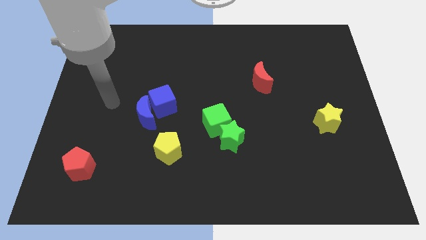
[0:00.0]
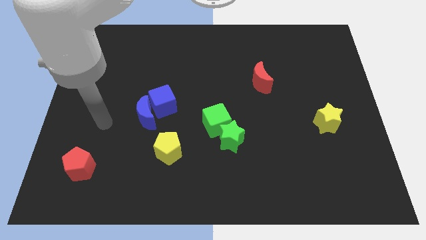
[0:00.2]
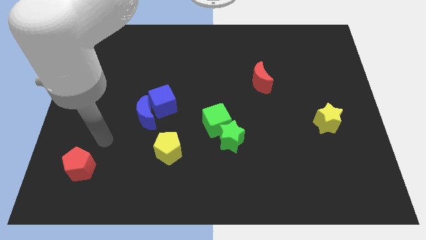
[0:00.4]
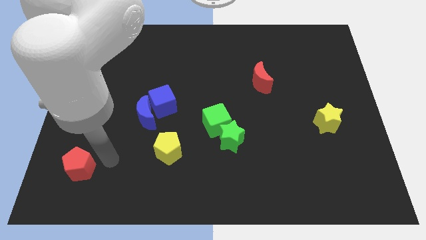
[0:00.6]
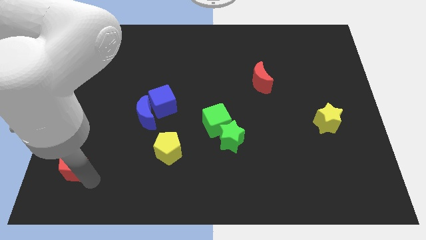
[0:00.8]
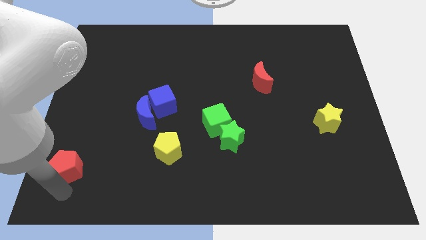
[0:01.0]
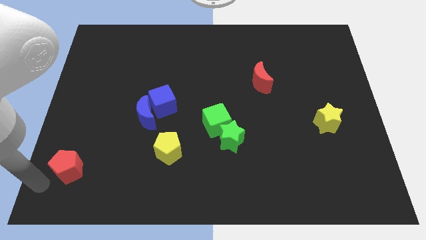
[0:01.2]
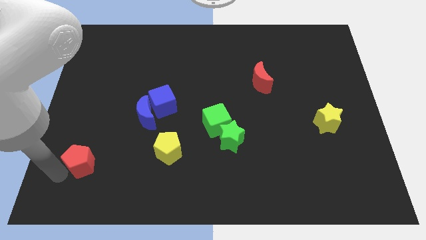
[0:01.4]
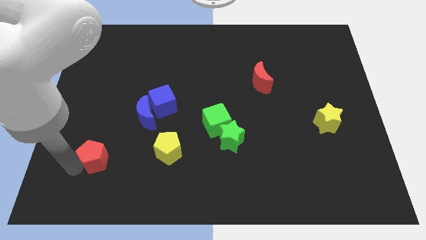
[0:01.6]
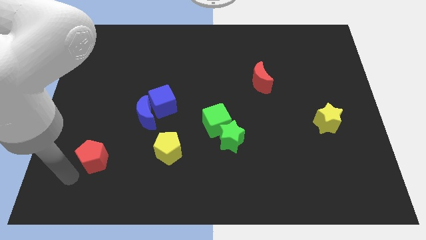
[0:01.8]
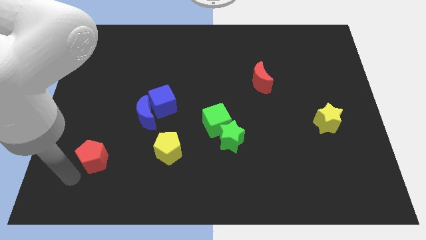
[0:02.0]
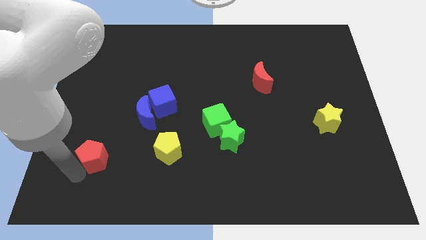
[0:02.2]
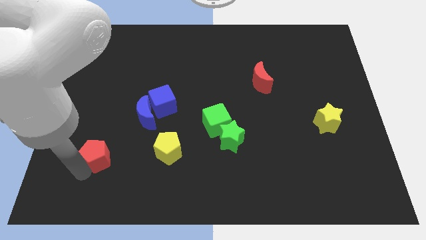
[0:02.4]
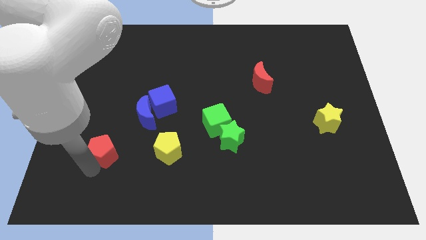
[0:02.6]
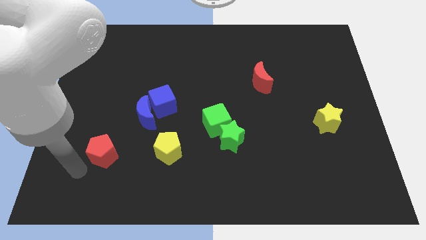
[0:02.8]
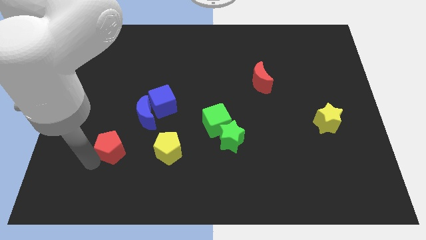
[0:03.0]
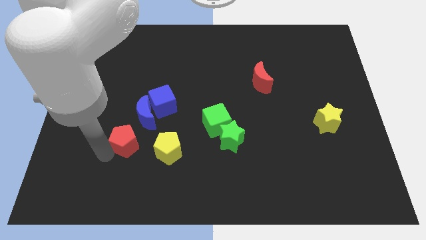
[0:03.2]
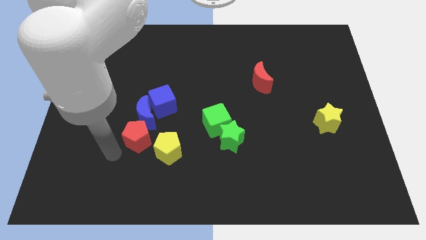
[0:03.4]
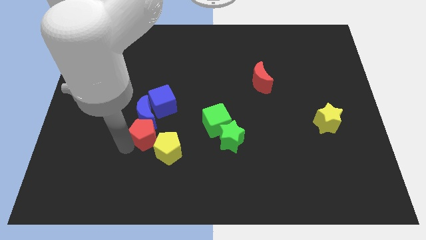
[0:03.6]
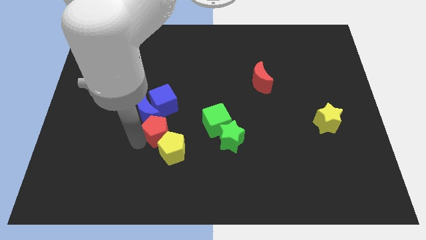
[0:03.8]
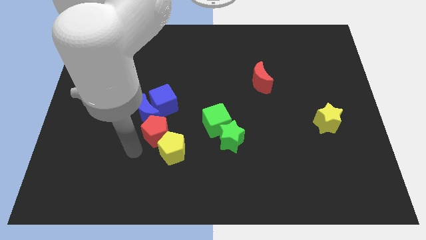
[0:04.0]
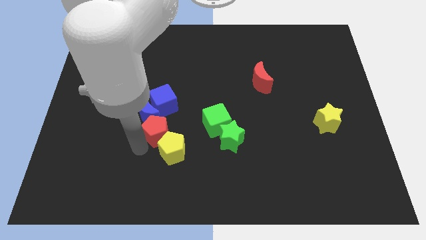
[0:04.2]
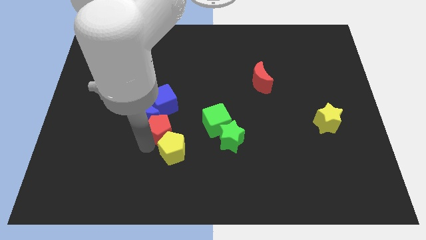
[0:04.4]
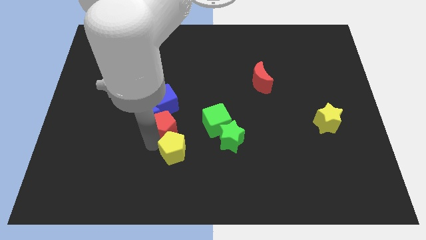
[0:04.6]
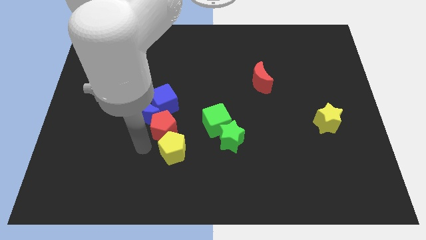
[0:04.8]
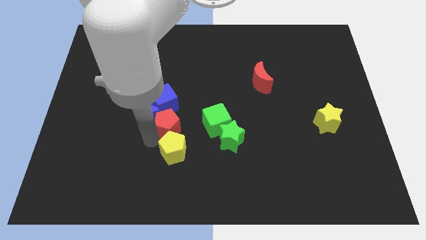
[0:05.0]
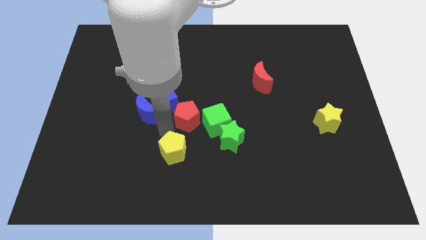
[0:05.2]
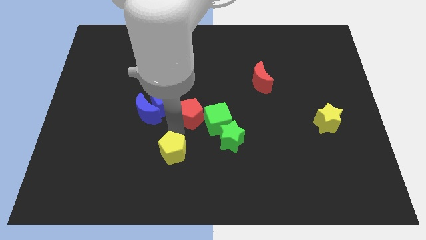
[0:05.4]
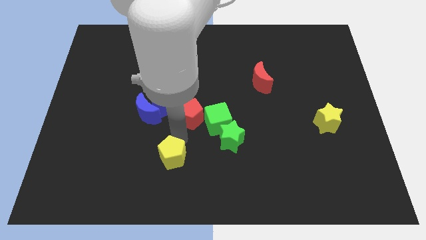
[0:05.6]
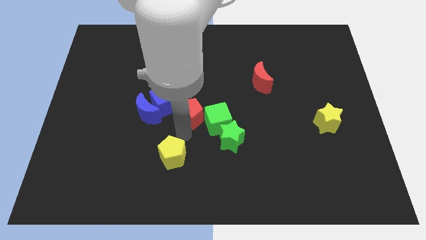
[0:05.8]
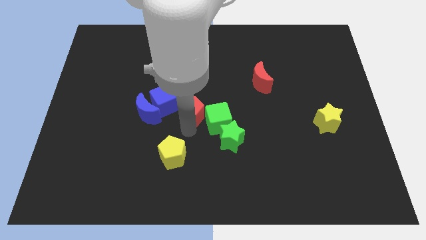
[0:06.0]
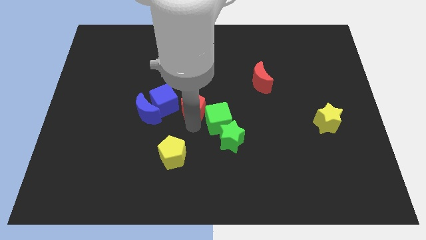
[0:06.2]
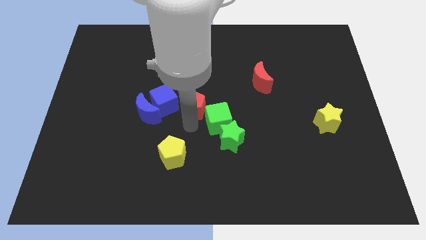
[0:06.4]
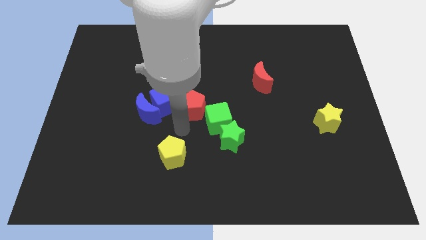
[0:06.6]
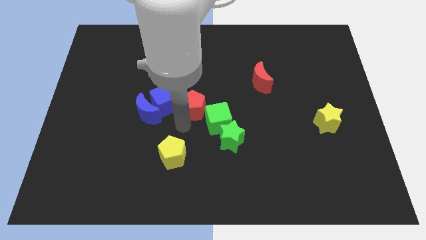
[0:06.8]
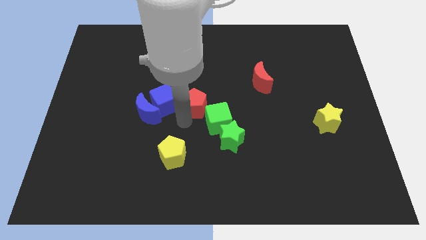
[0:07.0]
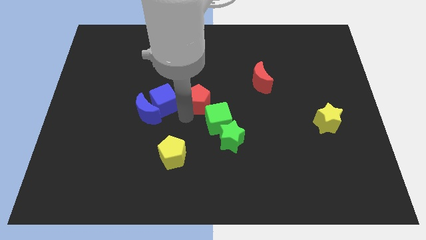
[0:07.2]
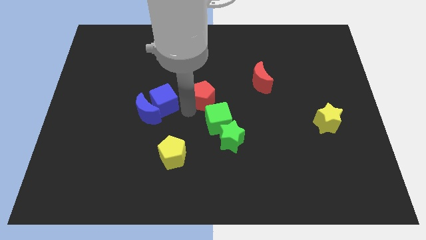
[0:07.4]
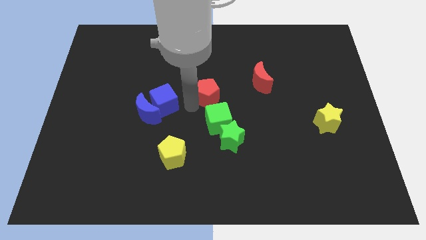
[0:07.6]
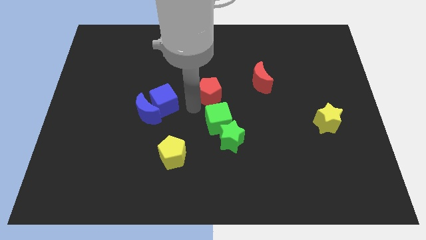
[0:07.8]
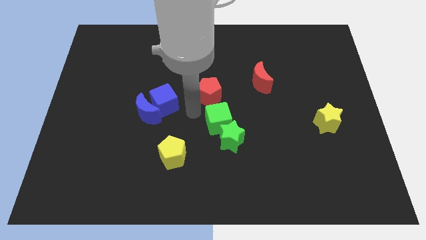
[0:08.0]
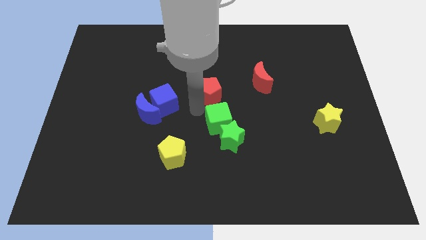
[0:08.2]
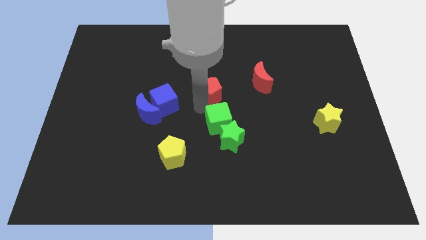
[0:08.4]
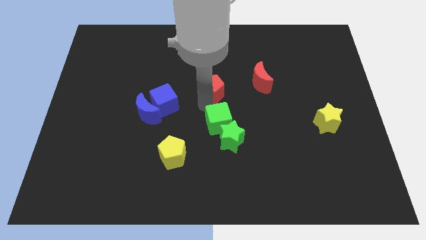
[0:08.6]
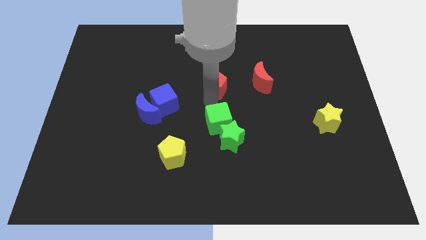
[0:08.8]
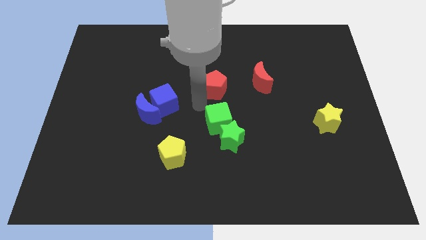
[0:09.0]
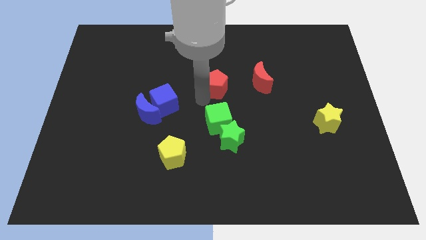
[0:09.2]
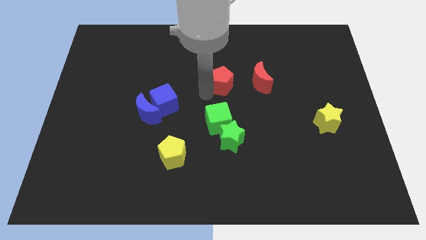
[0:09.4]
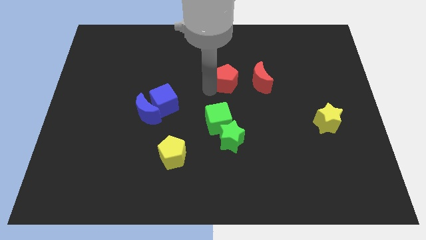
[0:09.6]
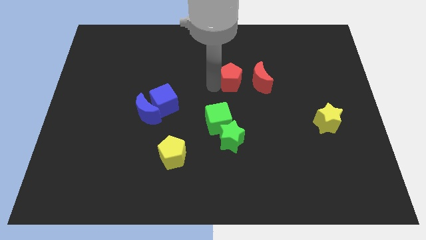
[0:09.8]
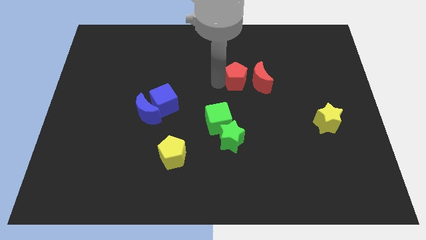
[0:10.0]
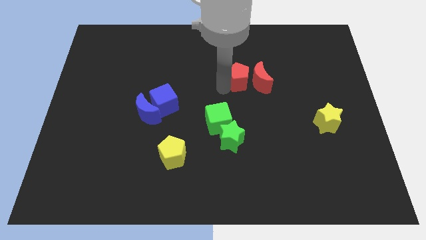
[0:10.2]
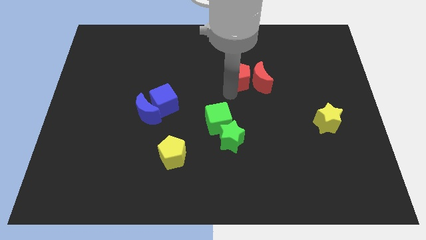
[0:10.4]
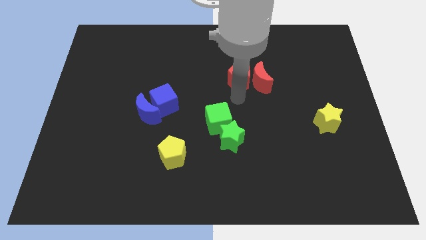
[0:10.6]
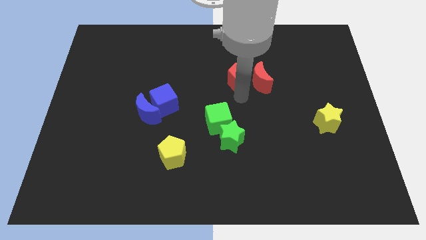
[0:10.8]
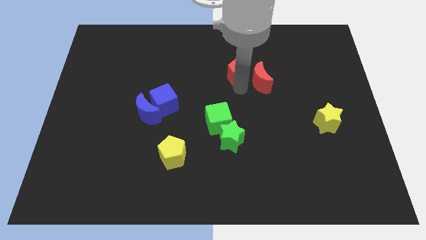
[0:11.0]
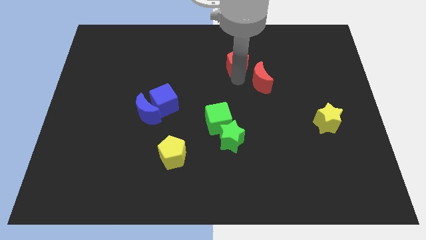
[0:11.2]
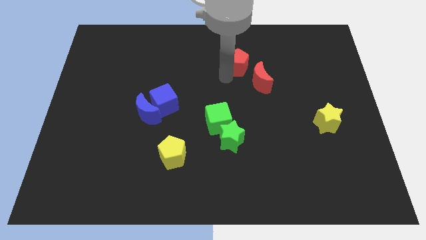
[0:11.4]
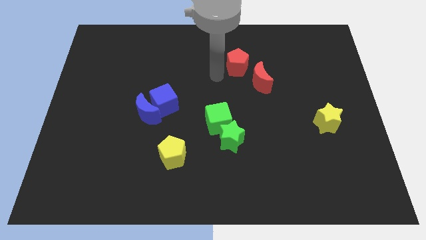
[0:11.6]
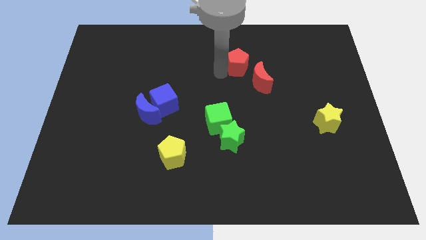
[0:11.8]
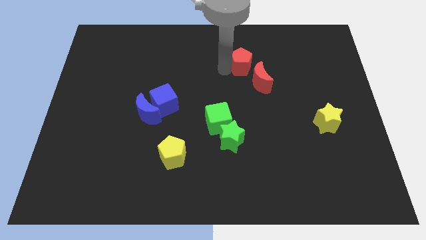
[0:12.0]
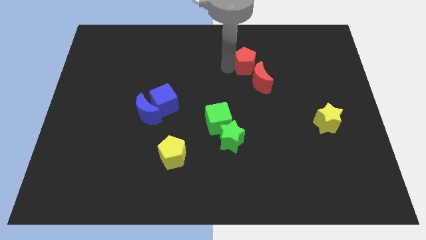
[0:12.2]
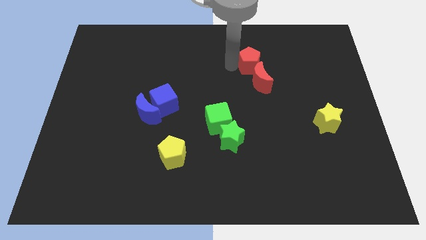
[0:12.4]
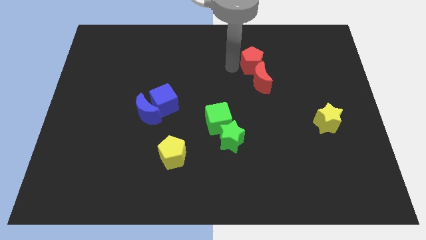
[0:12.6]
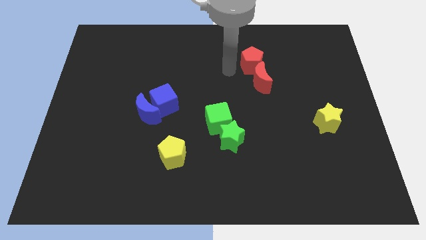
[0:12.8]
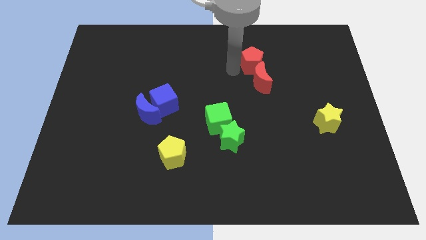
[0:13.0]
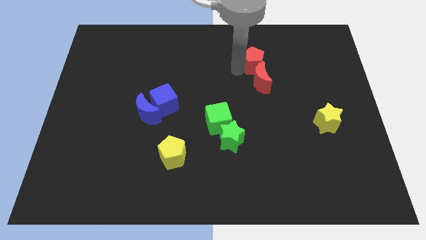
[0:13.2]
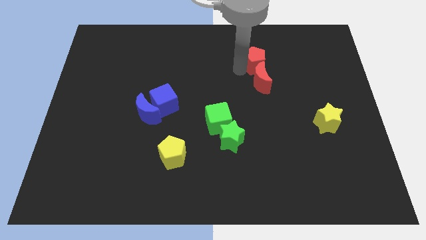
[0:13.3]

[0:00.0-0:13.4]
move the red pentagon diagonally up and to the right of the red moon

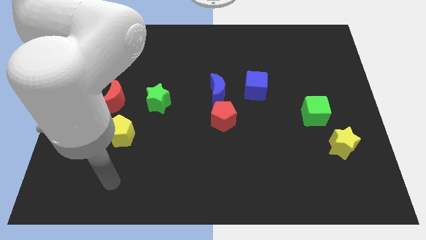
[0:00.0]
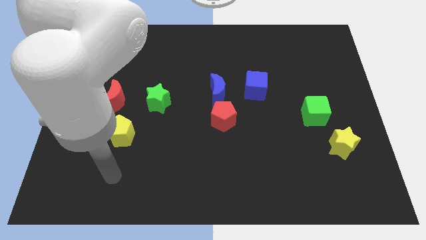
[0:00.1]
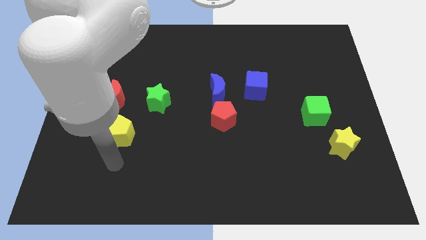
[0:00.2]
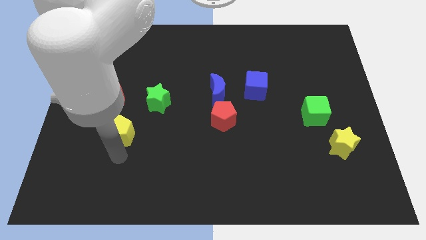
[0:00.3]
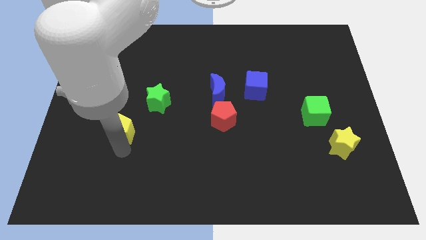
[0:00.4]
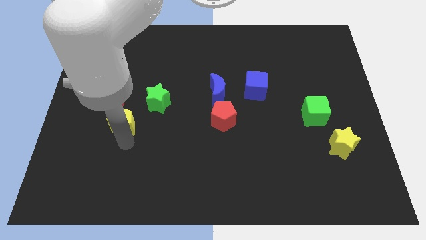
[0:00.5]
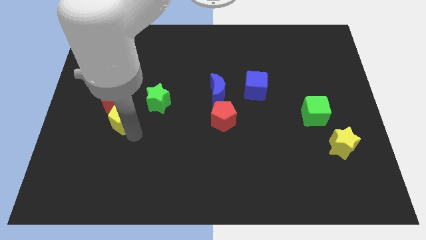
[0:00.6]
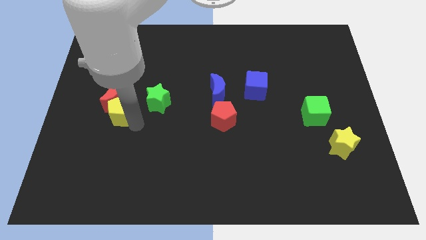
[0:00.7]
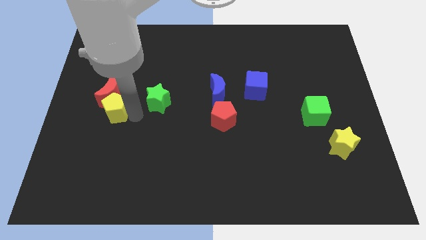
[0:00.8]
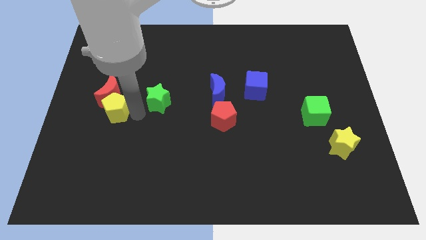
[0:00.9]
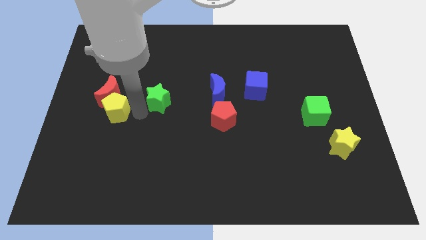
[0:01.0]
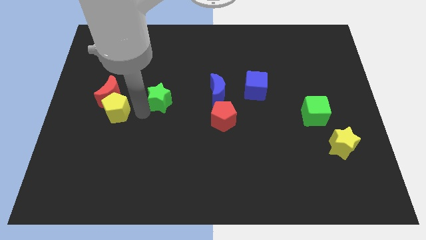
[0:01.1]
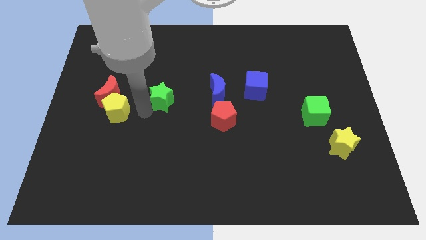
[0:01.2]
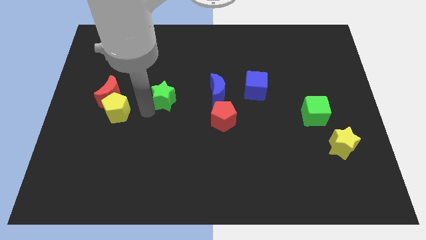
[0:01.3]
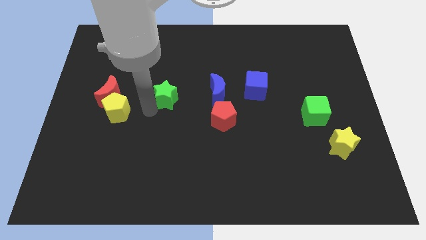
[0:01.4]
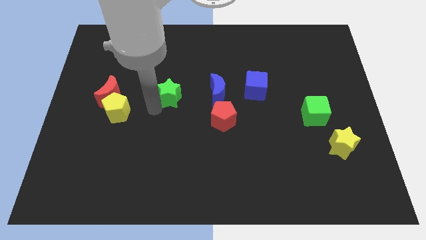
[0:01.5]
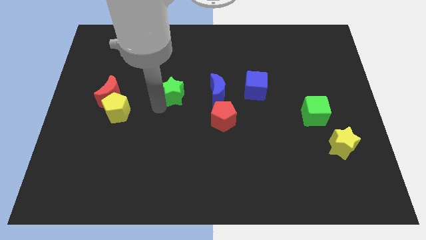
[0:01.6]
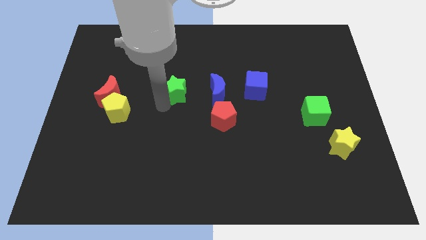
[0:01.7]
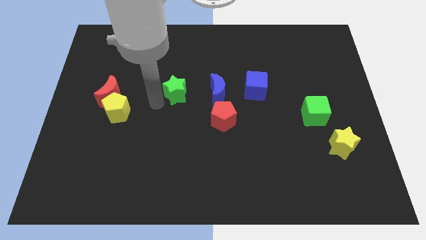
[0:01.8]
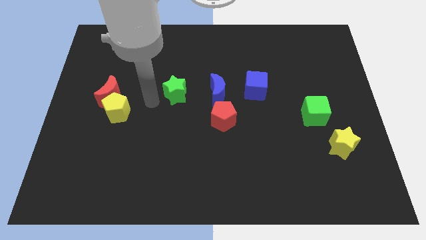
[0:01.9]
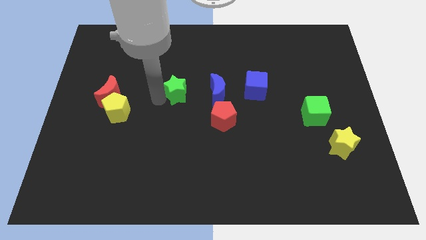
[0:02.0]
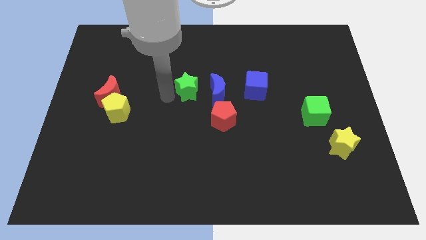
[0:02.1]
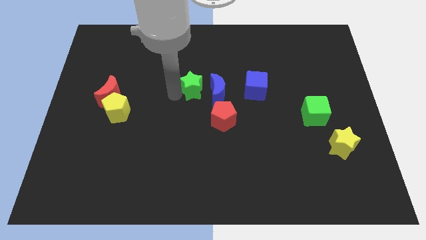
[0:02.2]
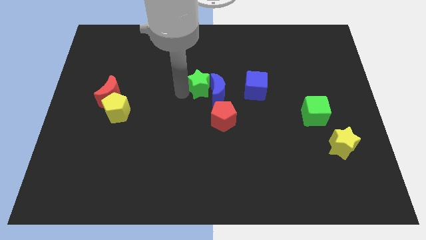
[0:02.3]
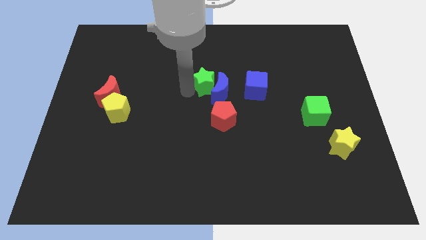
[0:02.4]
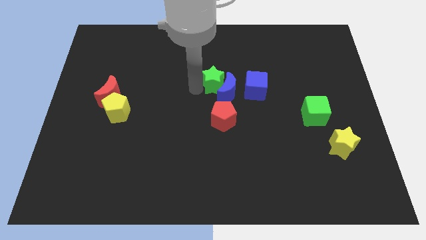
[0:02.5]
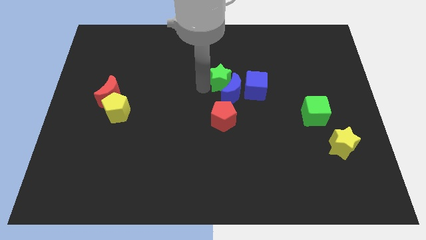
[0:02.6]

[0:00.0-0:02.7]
push the green star to the top left of the blue cube
